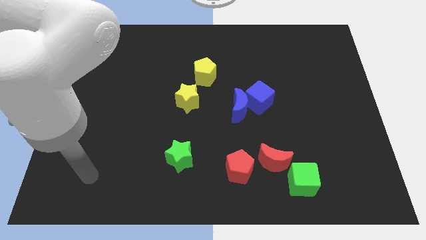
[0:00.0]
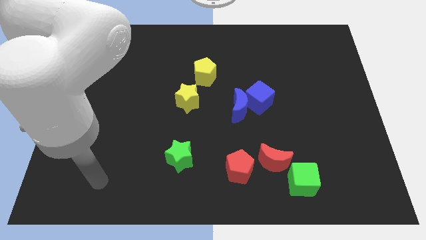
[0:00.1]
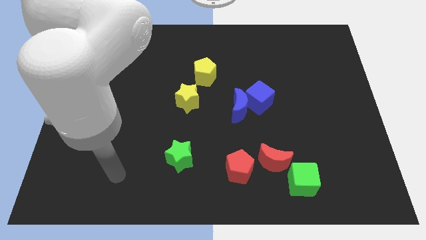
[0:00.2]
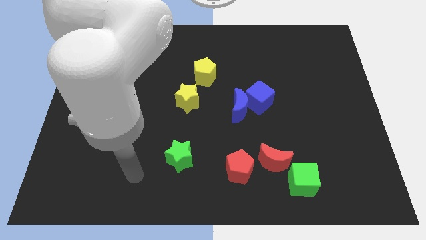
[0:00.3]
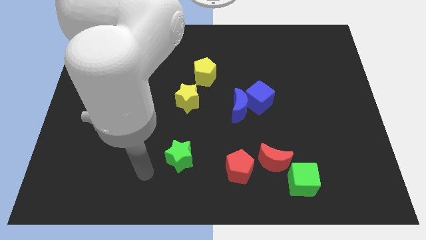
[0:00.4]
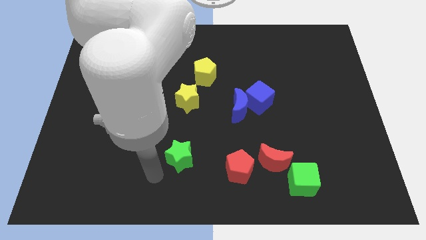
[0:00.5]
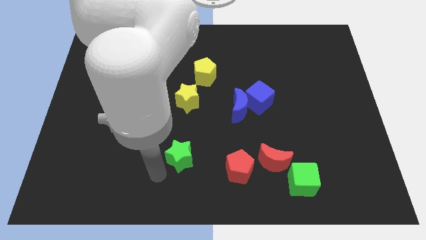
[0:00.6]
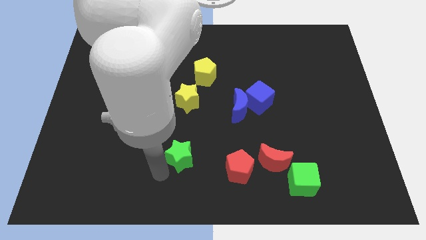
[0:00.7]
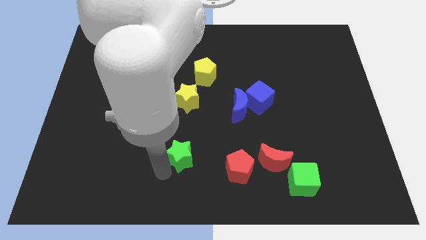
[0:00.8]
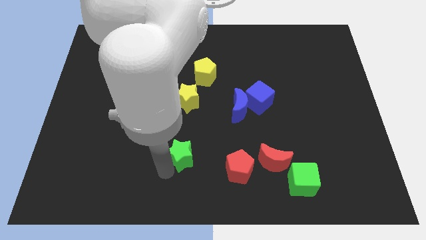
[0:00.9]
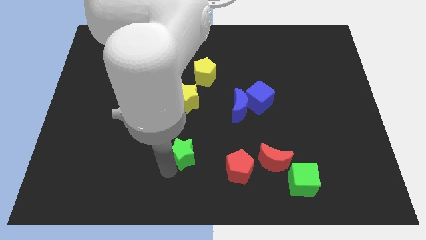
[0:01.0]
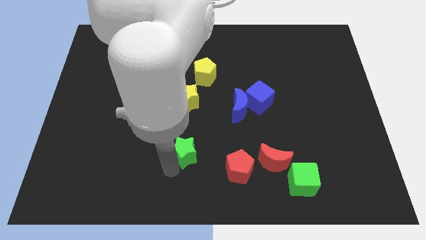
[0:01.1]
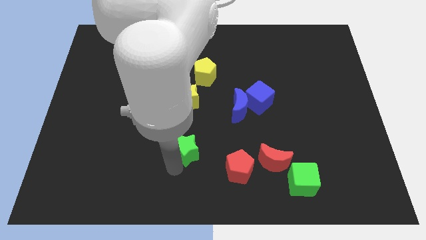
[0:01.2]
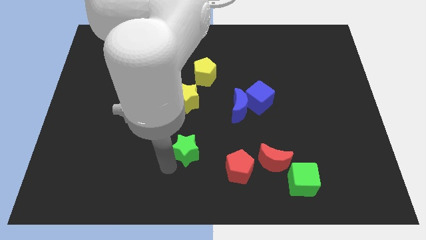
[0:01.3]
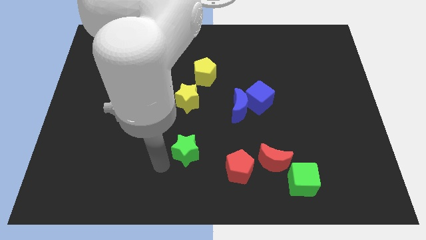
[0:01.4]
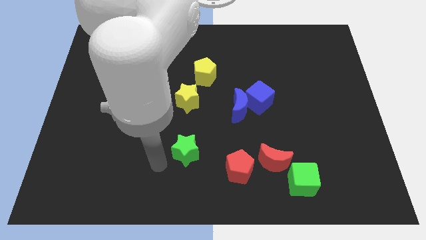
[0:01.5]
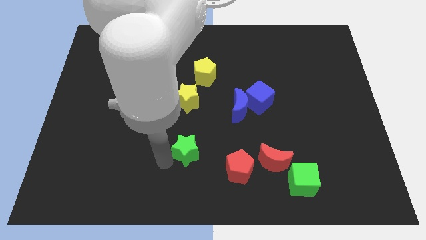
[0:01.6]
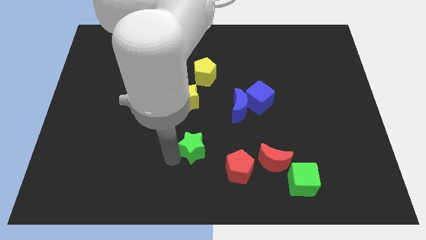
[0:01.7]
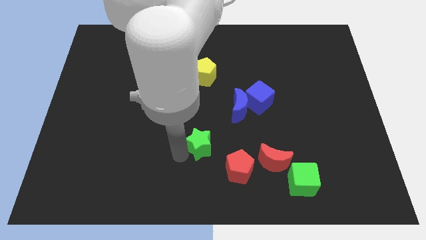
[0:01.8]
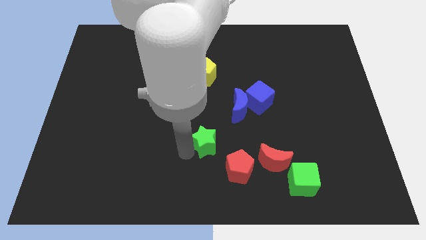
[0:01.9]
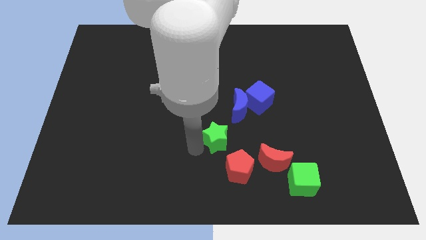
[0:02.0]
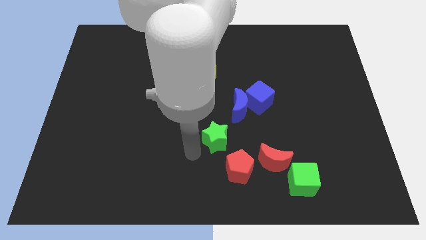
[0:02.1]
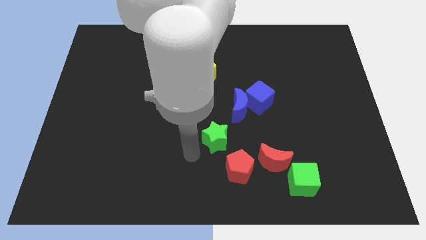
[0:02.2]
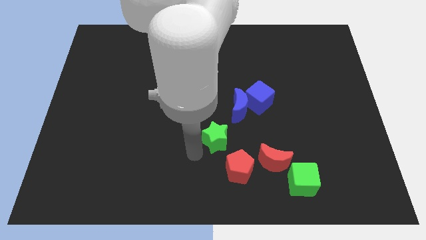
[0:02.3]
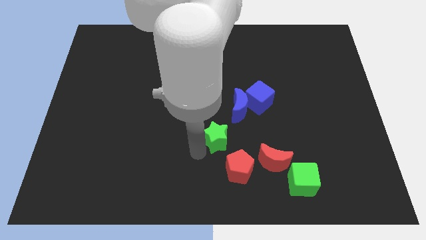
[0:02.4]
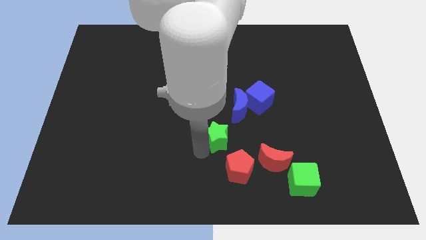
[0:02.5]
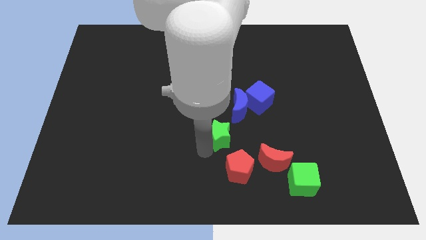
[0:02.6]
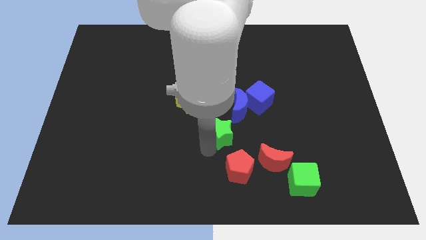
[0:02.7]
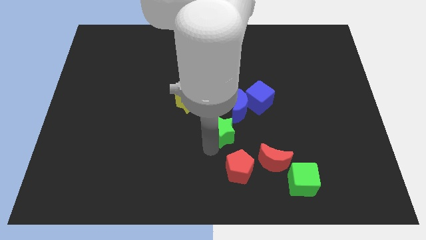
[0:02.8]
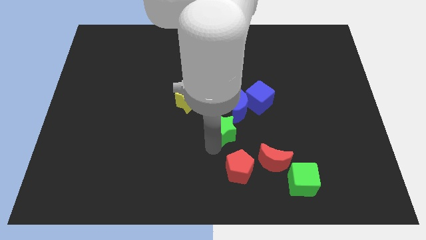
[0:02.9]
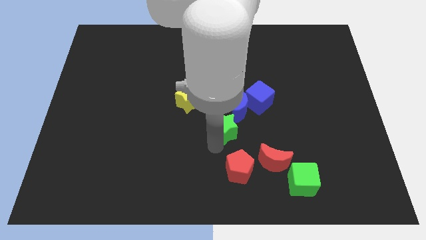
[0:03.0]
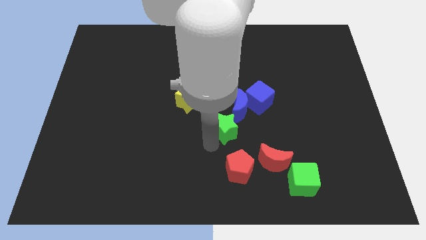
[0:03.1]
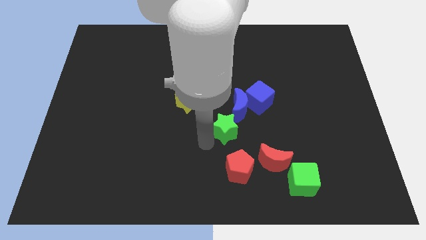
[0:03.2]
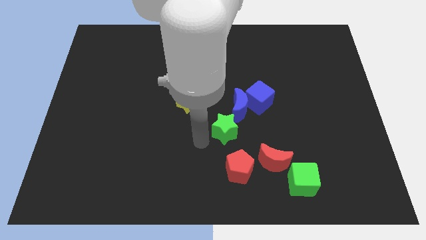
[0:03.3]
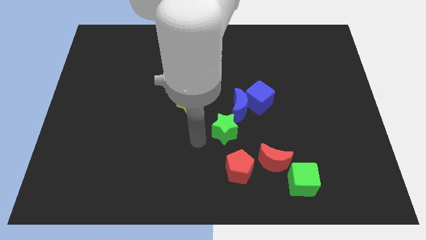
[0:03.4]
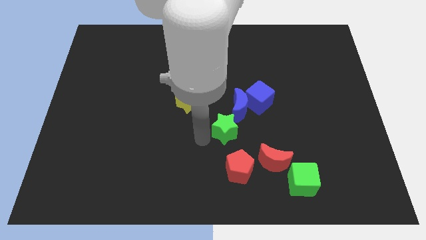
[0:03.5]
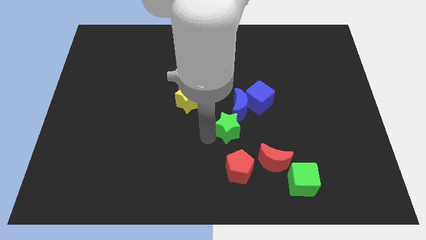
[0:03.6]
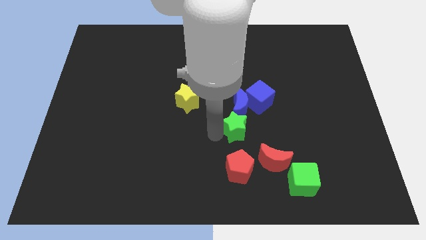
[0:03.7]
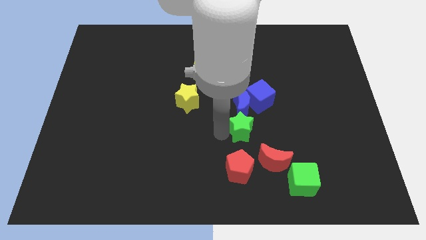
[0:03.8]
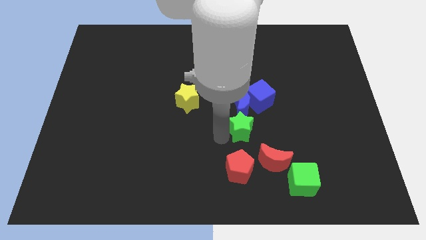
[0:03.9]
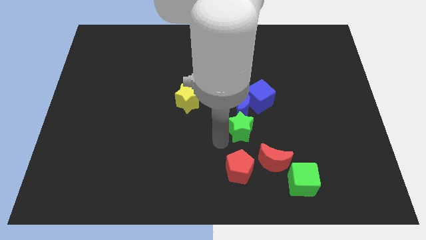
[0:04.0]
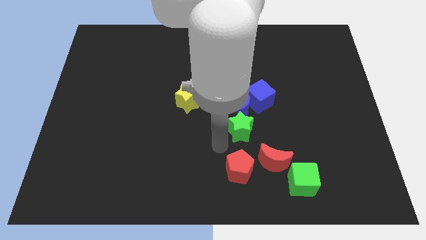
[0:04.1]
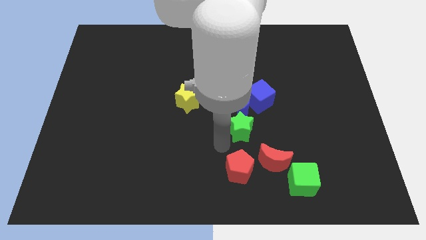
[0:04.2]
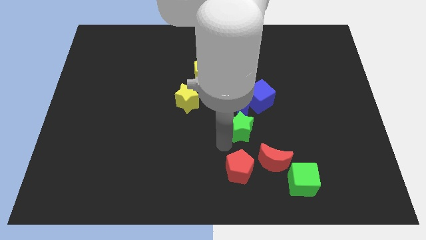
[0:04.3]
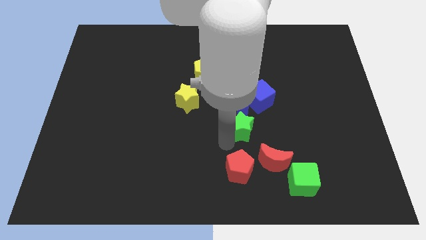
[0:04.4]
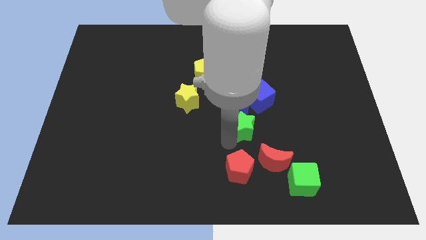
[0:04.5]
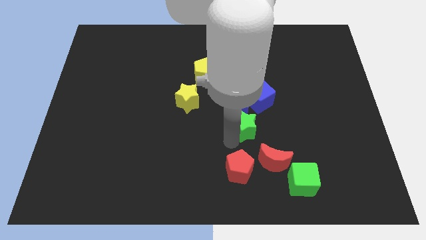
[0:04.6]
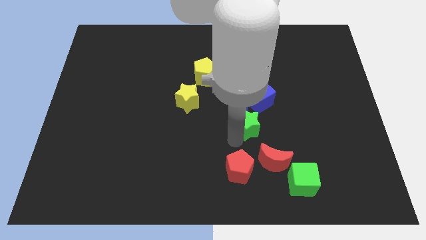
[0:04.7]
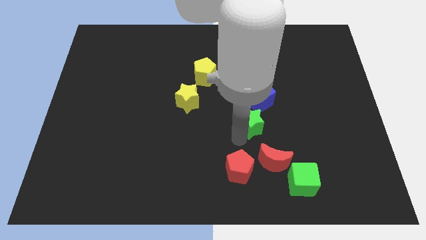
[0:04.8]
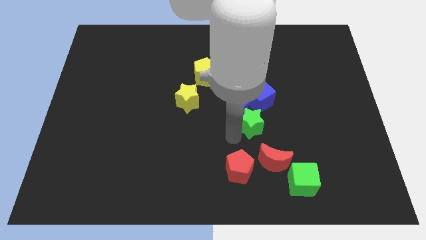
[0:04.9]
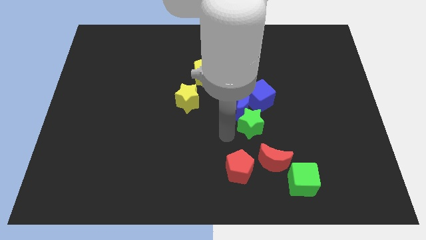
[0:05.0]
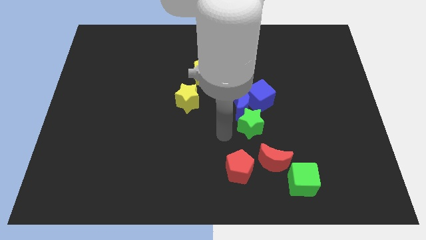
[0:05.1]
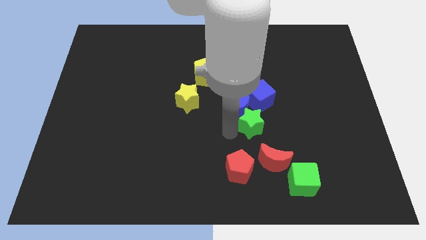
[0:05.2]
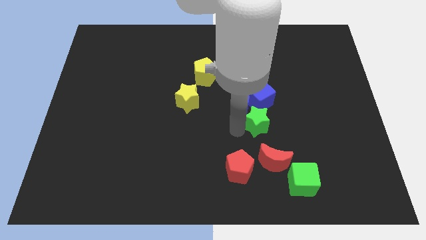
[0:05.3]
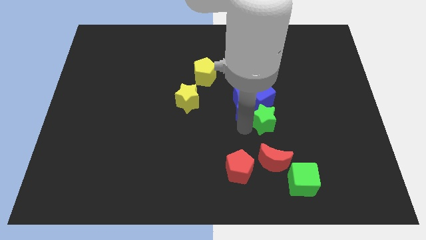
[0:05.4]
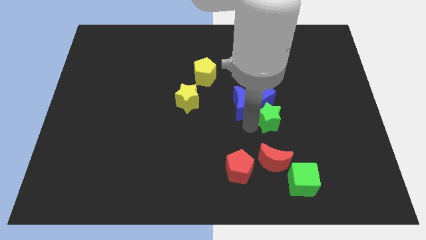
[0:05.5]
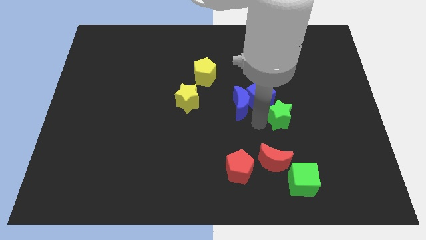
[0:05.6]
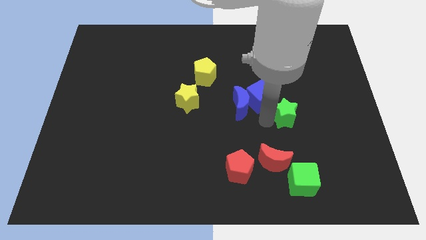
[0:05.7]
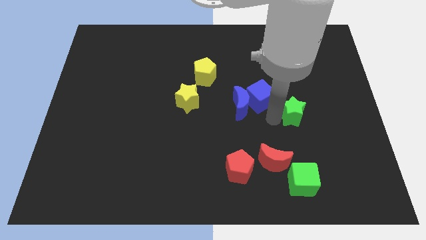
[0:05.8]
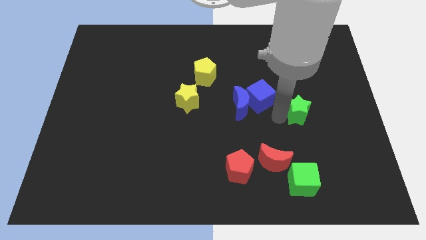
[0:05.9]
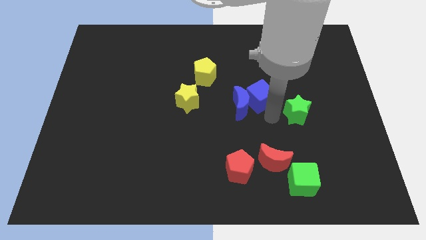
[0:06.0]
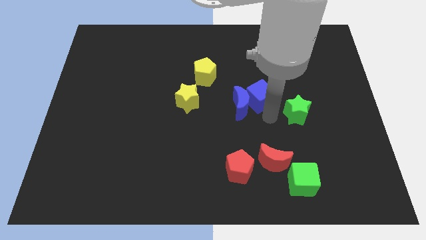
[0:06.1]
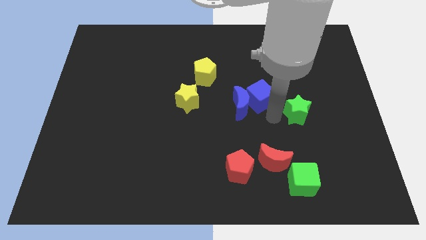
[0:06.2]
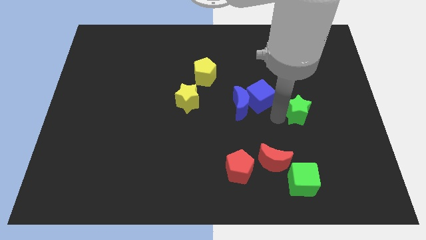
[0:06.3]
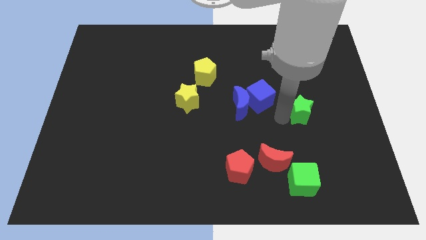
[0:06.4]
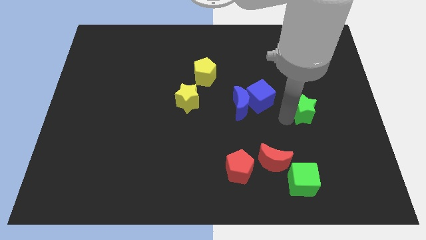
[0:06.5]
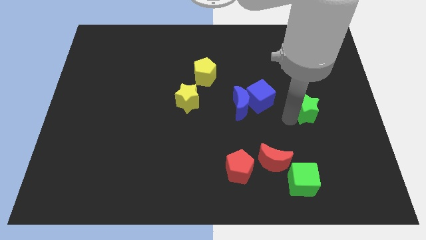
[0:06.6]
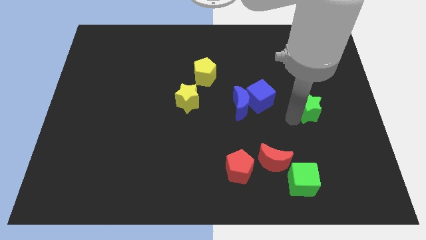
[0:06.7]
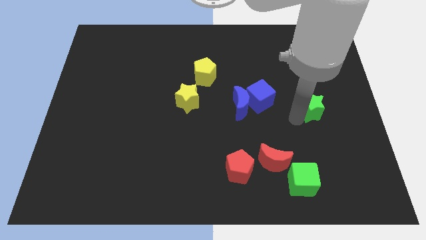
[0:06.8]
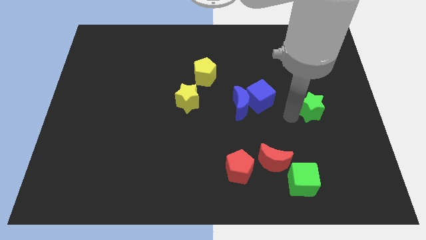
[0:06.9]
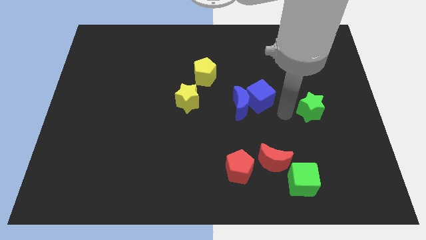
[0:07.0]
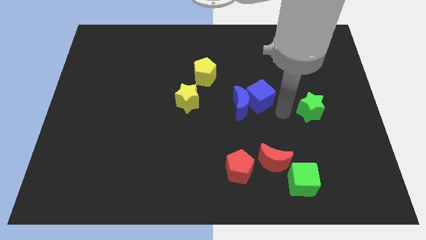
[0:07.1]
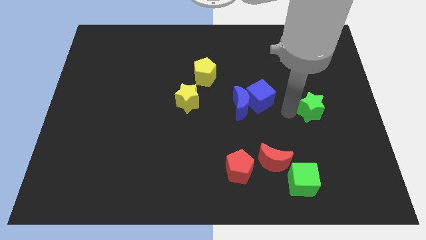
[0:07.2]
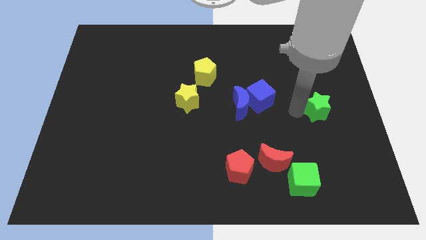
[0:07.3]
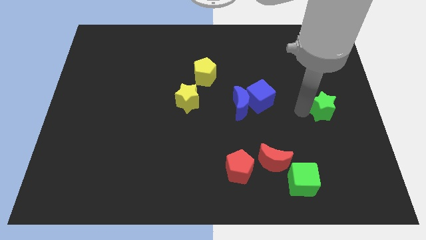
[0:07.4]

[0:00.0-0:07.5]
push the green star to the right side of the board

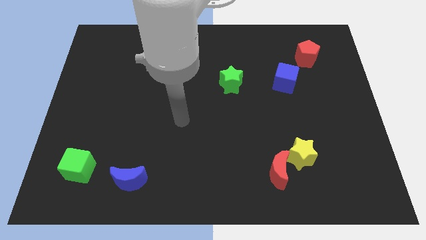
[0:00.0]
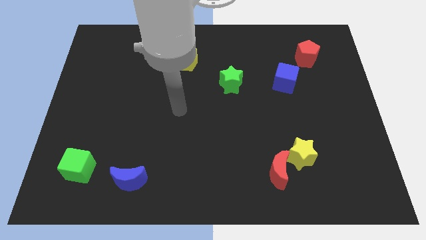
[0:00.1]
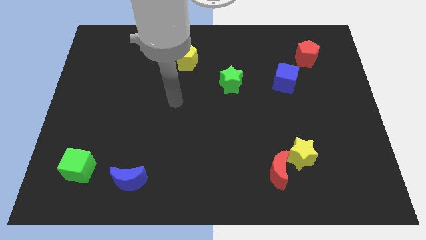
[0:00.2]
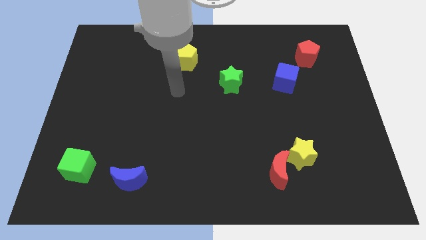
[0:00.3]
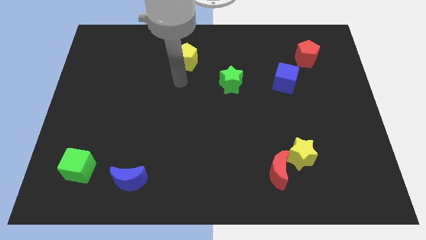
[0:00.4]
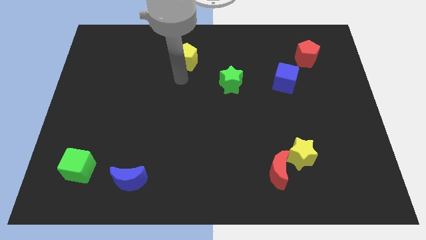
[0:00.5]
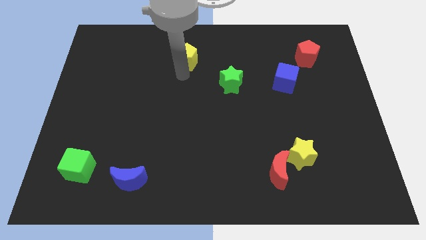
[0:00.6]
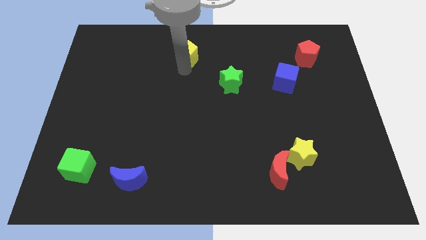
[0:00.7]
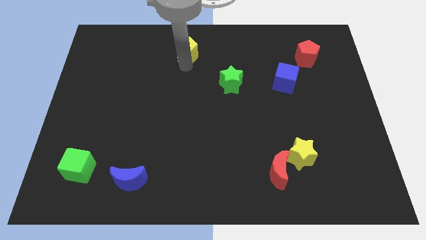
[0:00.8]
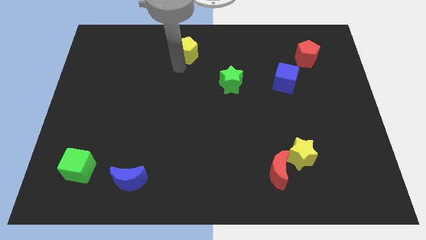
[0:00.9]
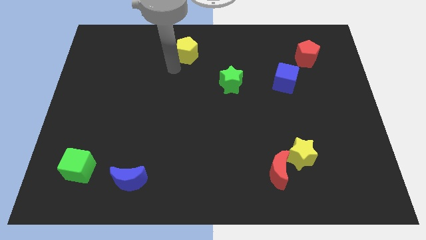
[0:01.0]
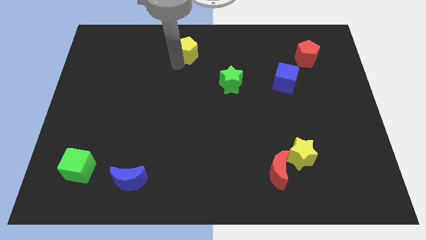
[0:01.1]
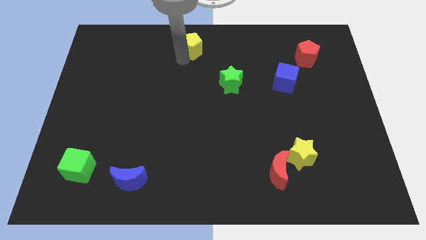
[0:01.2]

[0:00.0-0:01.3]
push the yellow pentagon to the top
